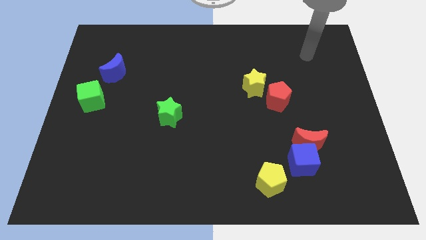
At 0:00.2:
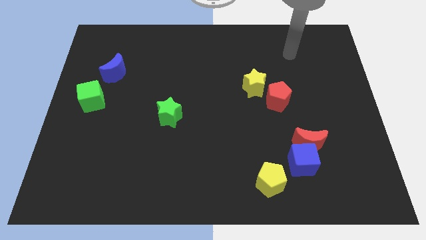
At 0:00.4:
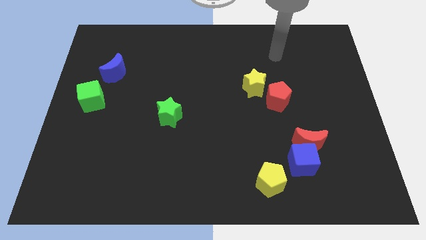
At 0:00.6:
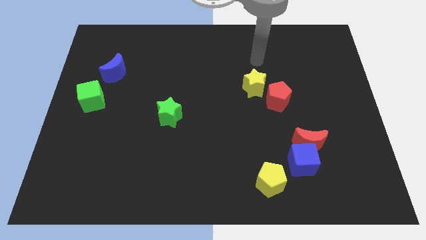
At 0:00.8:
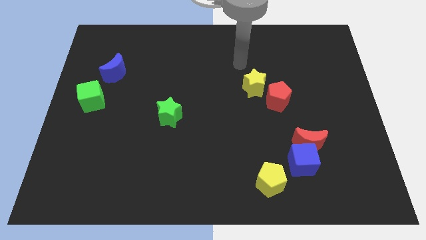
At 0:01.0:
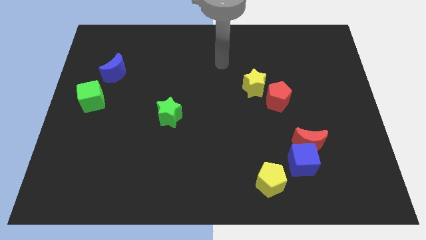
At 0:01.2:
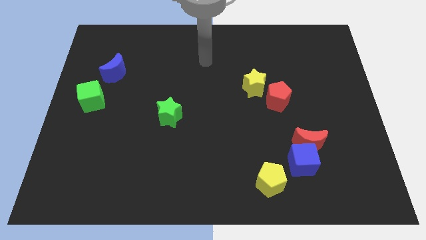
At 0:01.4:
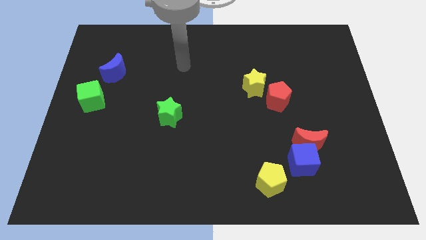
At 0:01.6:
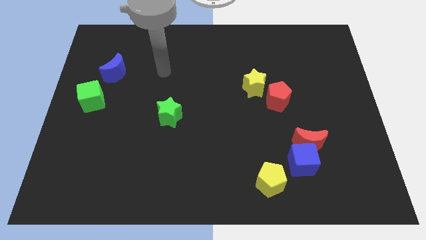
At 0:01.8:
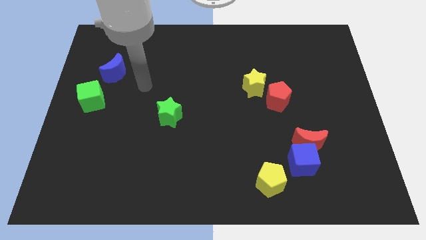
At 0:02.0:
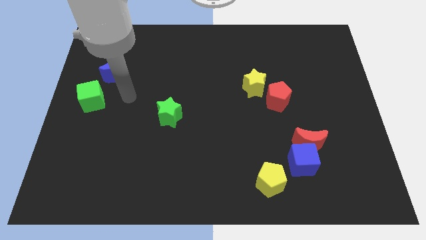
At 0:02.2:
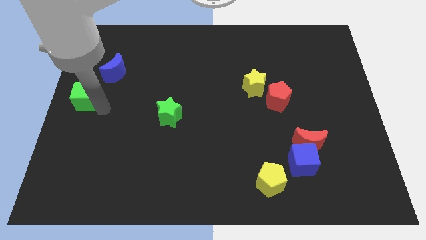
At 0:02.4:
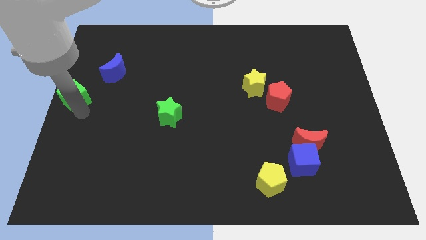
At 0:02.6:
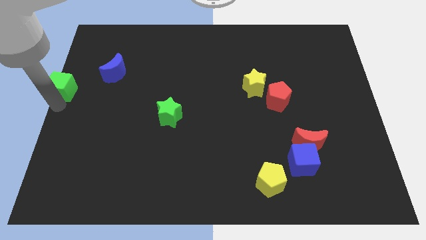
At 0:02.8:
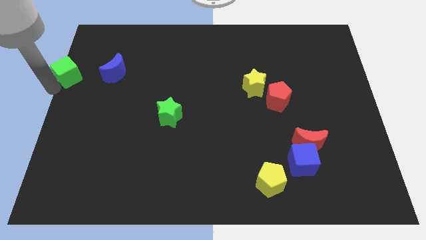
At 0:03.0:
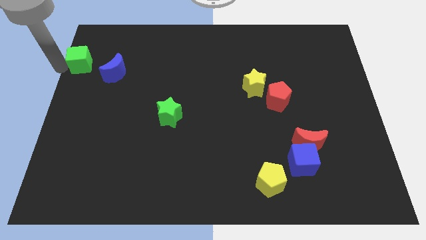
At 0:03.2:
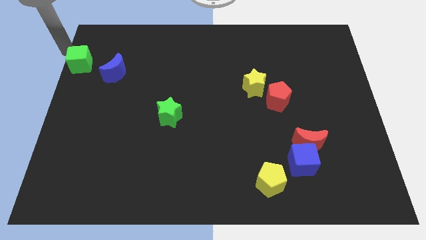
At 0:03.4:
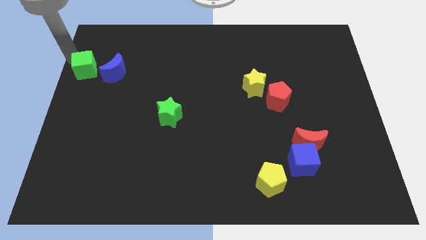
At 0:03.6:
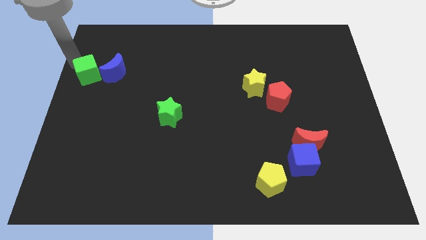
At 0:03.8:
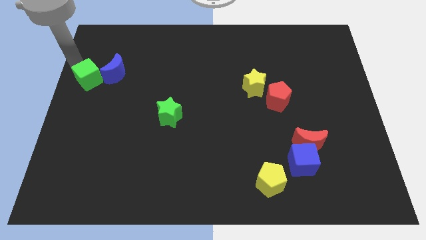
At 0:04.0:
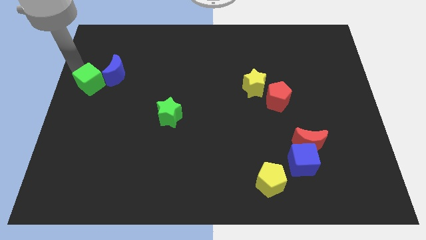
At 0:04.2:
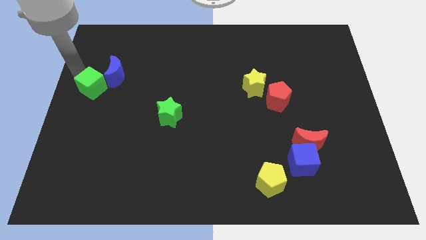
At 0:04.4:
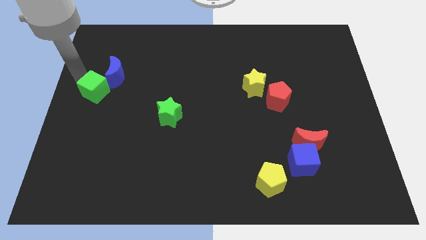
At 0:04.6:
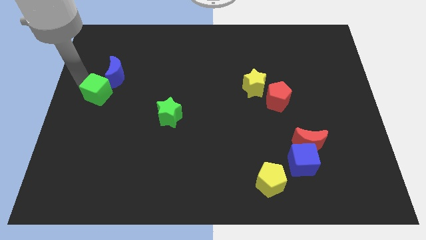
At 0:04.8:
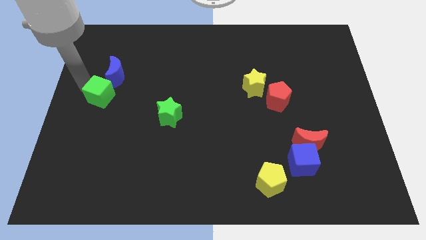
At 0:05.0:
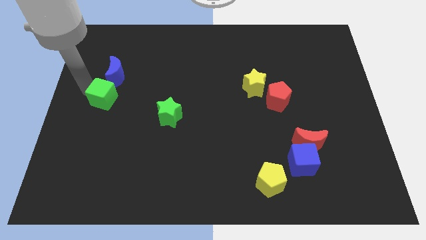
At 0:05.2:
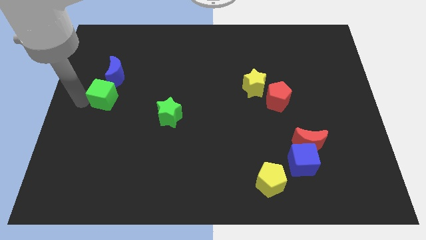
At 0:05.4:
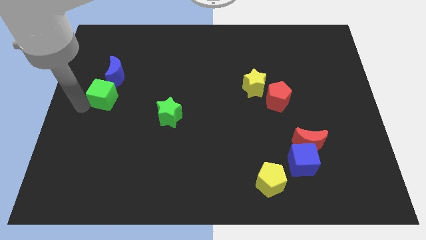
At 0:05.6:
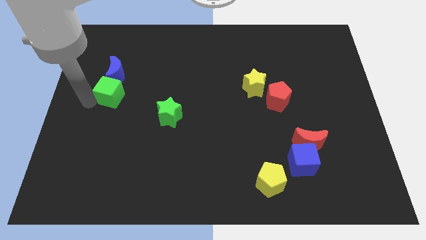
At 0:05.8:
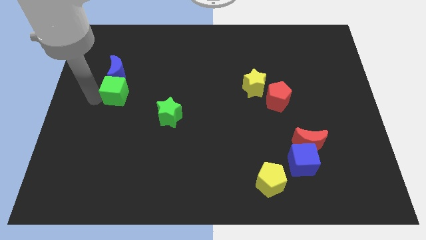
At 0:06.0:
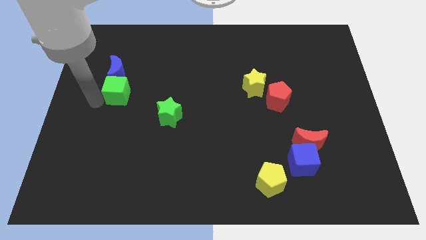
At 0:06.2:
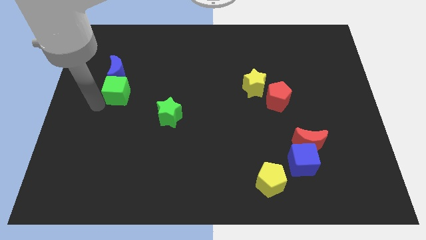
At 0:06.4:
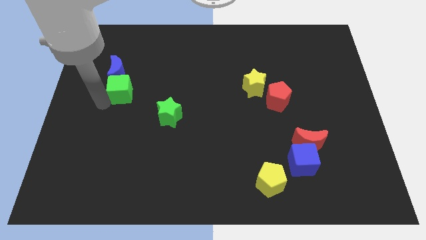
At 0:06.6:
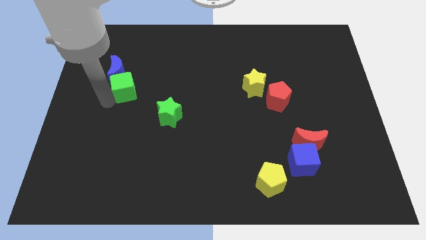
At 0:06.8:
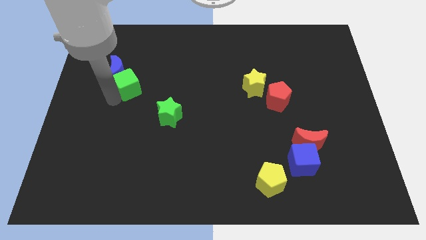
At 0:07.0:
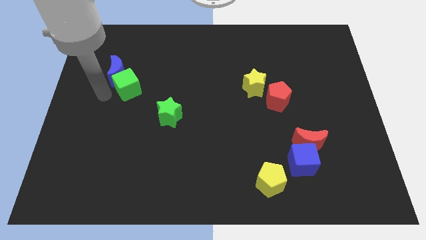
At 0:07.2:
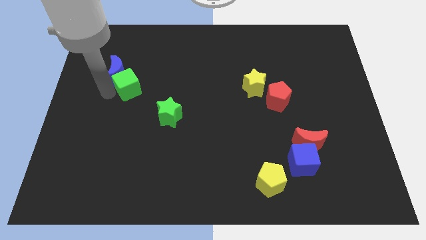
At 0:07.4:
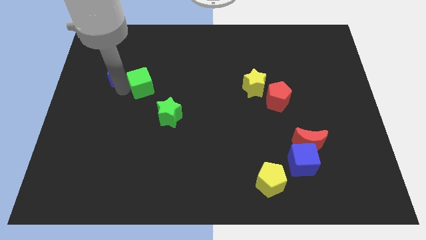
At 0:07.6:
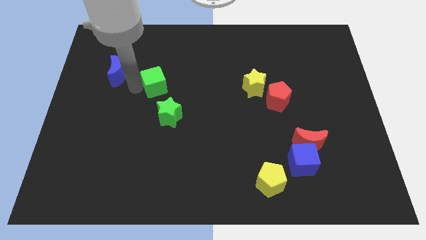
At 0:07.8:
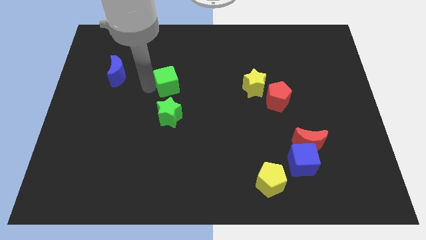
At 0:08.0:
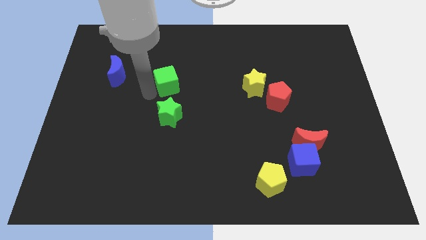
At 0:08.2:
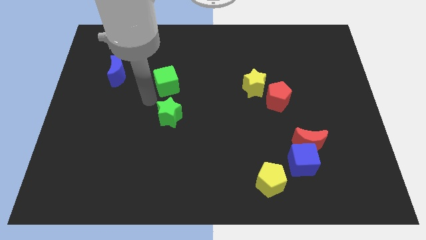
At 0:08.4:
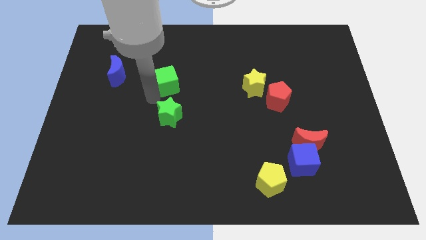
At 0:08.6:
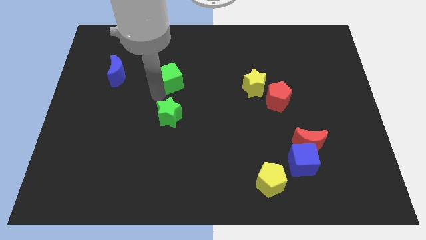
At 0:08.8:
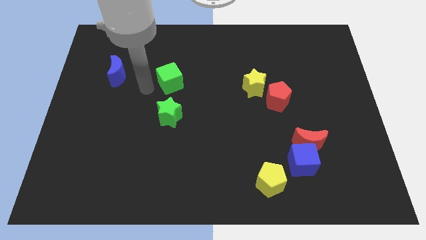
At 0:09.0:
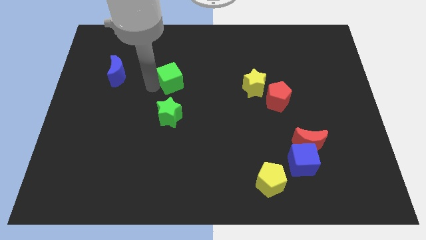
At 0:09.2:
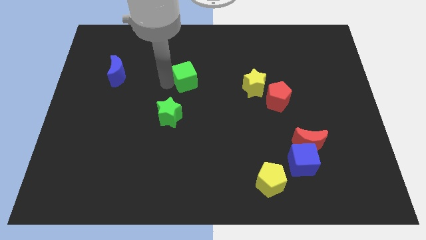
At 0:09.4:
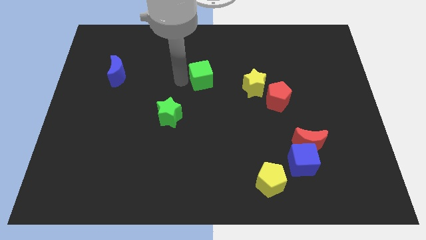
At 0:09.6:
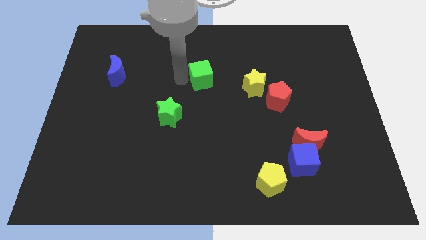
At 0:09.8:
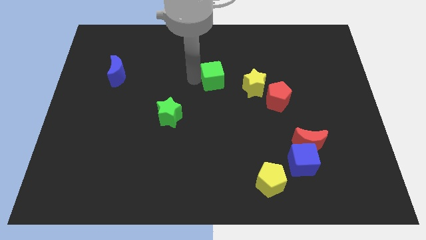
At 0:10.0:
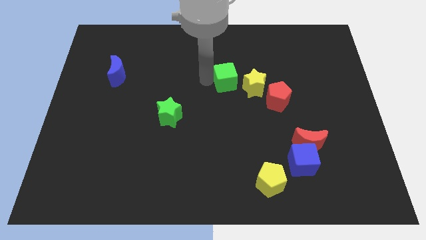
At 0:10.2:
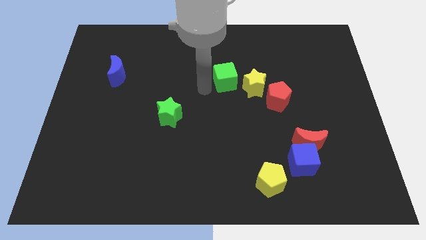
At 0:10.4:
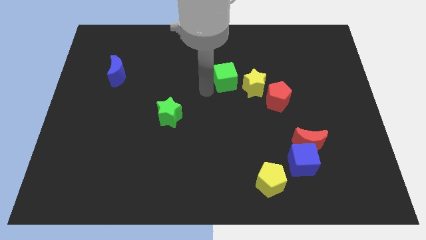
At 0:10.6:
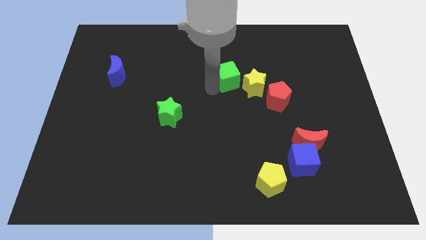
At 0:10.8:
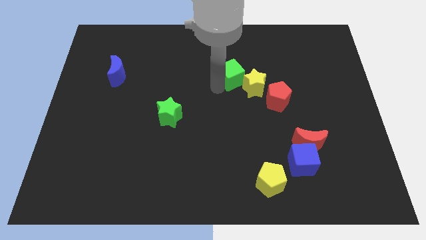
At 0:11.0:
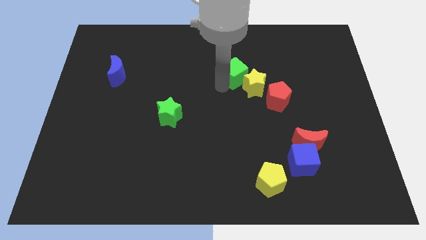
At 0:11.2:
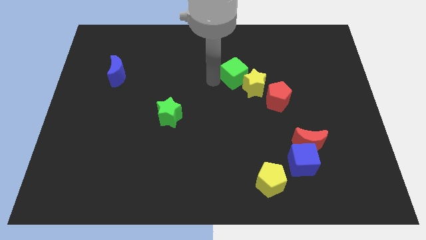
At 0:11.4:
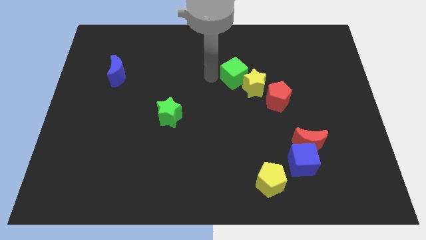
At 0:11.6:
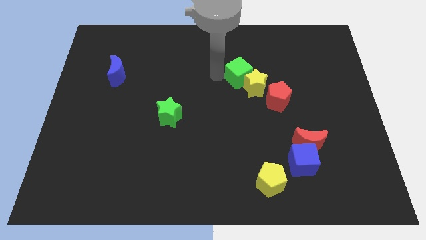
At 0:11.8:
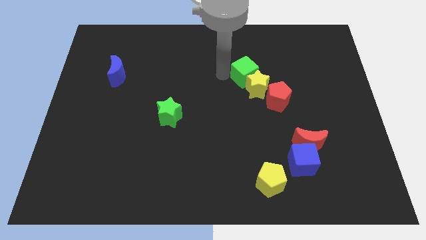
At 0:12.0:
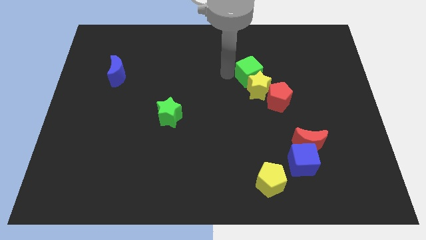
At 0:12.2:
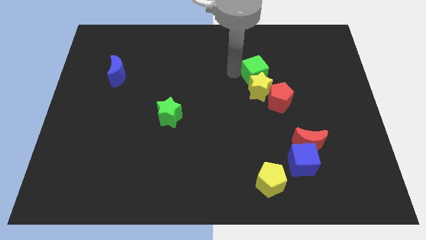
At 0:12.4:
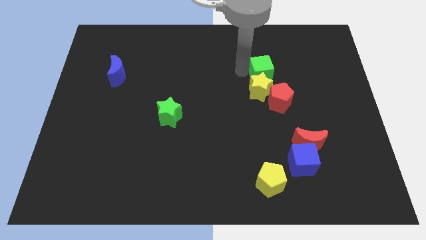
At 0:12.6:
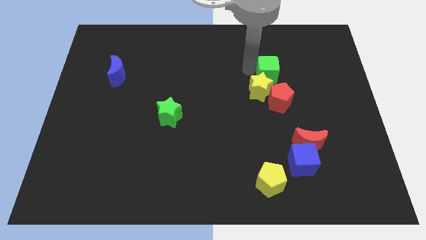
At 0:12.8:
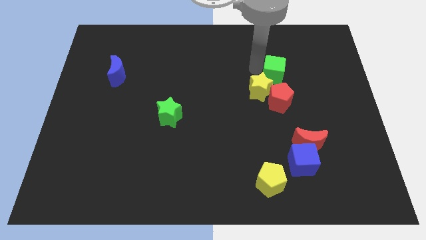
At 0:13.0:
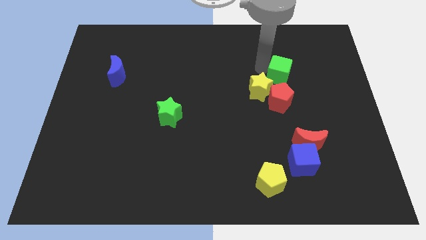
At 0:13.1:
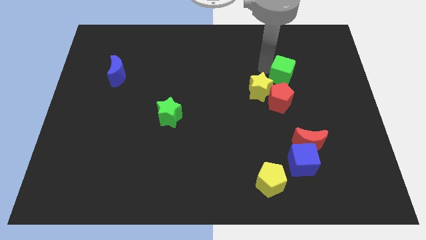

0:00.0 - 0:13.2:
push the green cube to the top right side of the red pentagon

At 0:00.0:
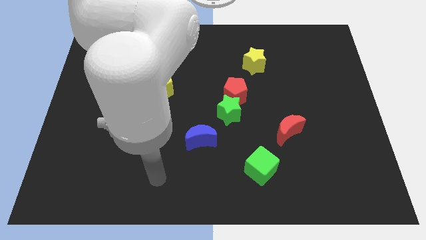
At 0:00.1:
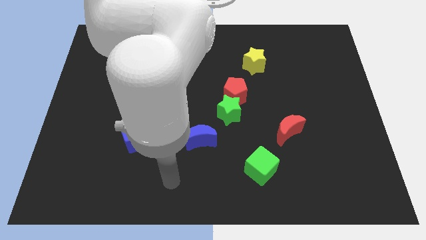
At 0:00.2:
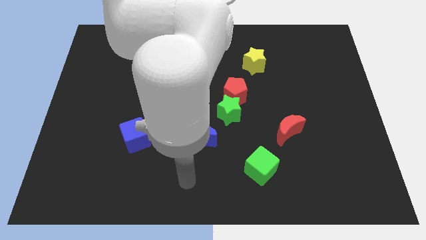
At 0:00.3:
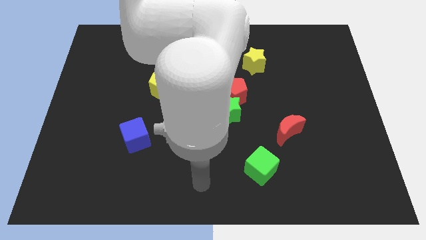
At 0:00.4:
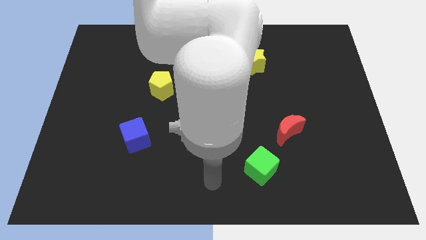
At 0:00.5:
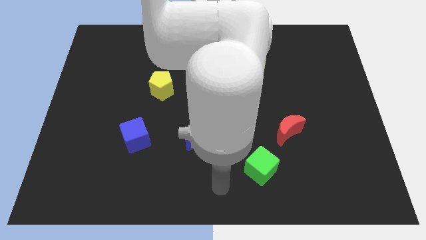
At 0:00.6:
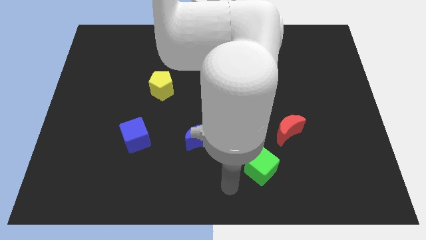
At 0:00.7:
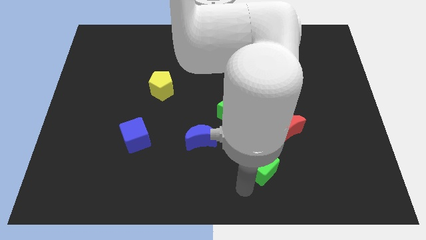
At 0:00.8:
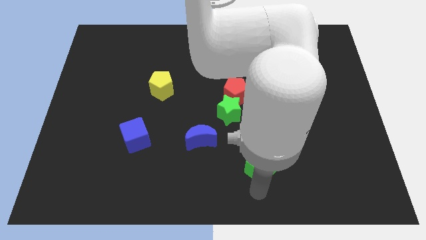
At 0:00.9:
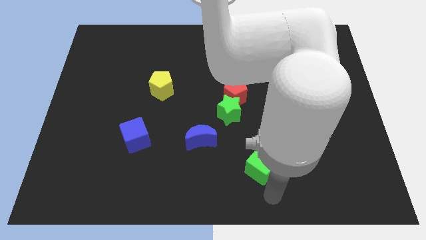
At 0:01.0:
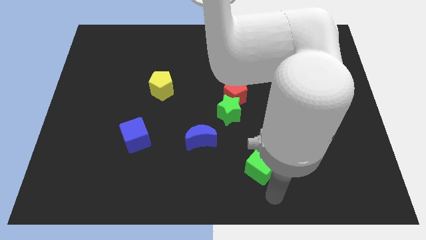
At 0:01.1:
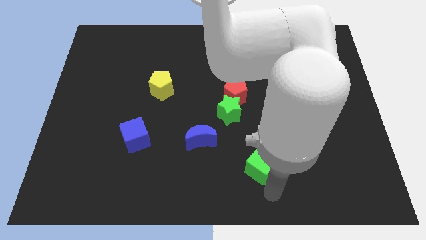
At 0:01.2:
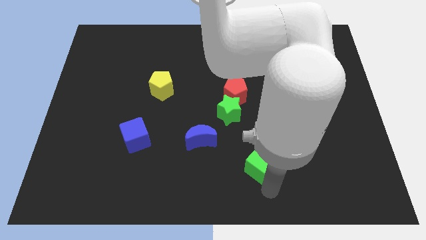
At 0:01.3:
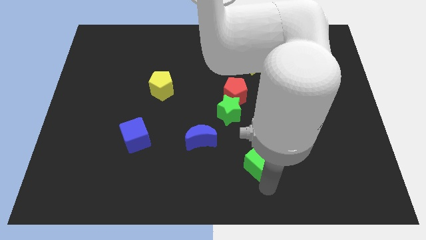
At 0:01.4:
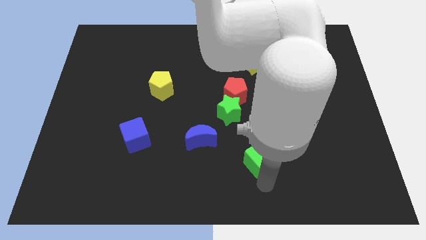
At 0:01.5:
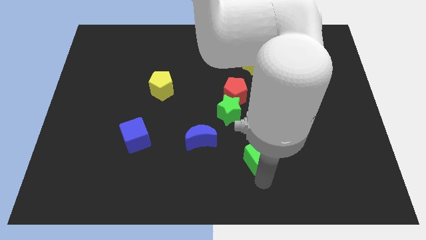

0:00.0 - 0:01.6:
slide the green cube to the right of the blue moon
